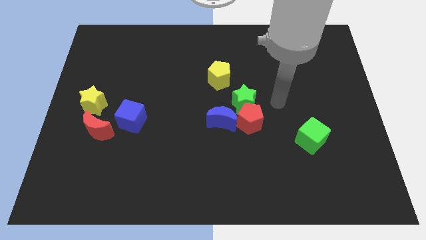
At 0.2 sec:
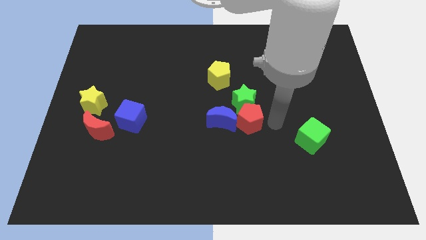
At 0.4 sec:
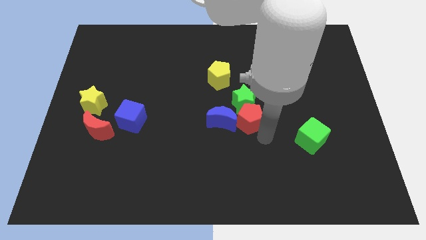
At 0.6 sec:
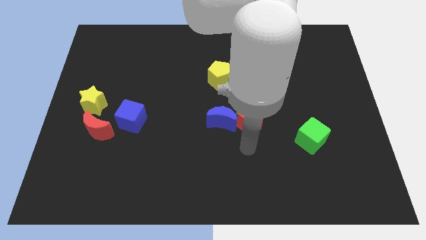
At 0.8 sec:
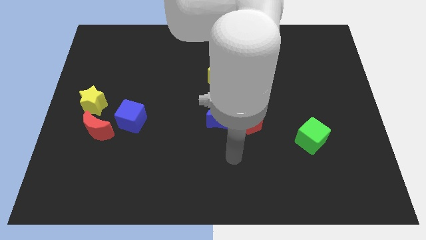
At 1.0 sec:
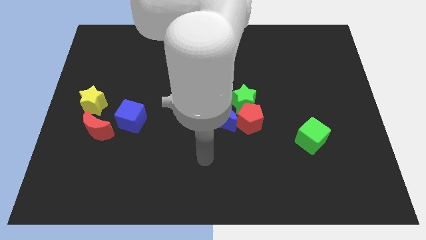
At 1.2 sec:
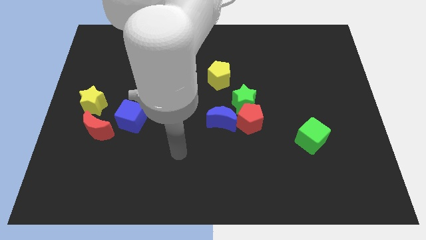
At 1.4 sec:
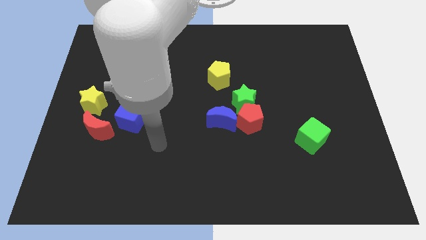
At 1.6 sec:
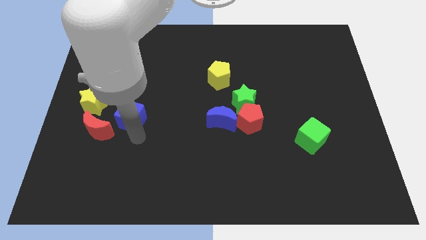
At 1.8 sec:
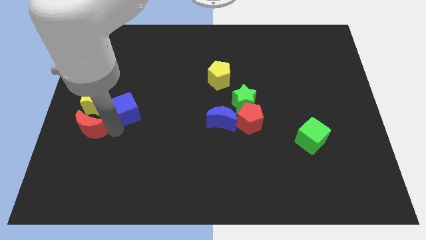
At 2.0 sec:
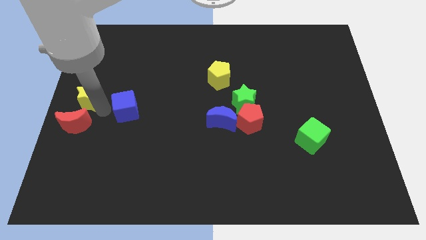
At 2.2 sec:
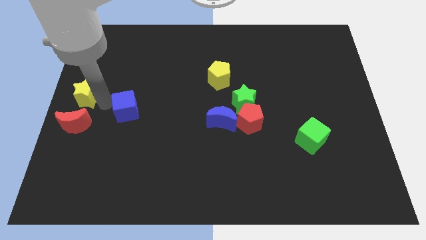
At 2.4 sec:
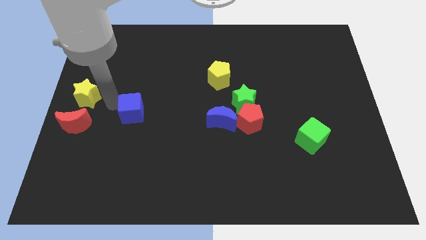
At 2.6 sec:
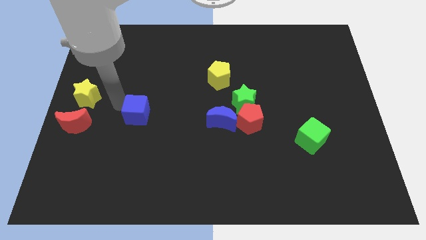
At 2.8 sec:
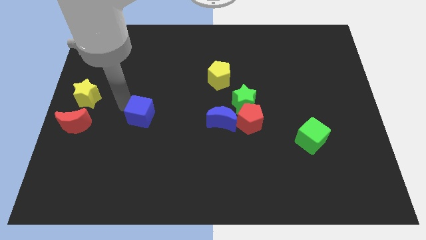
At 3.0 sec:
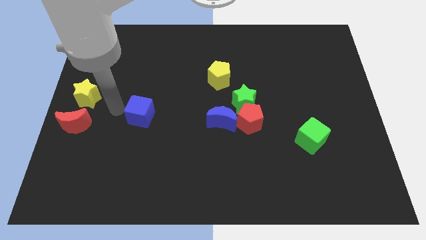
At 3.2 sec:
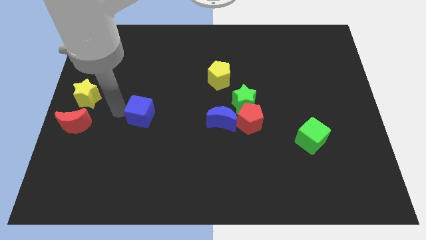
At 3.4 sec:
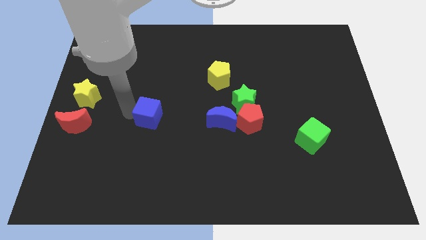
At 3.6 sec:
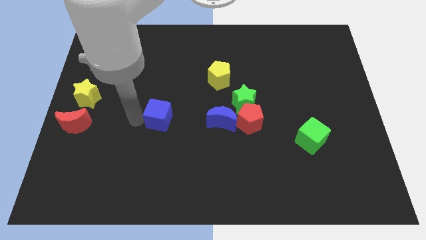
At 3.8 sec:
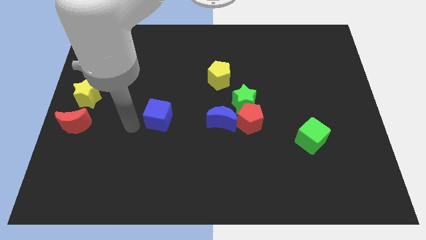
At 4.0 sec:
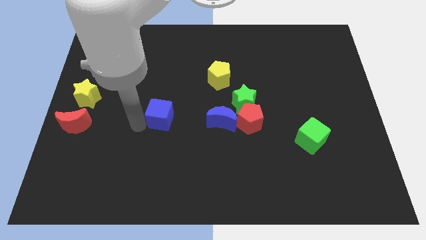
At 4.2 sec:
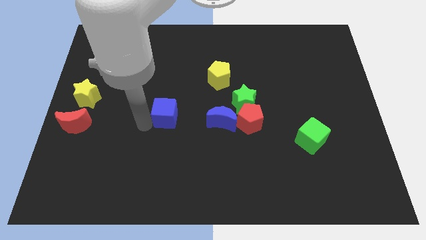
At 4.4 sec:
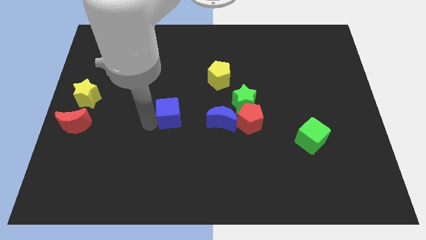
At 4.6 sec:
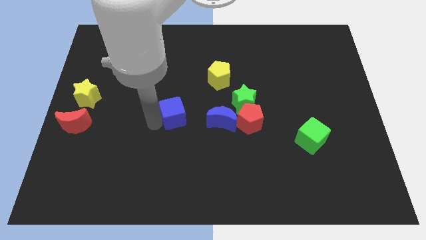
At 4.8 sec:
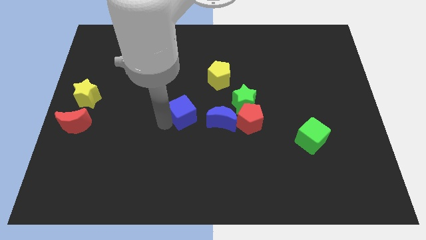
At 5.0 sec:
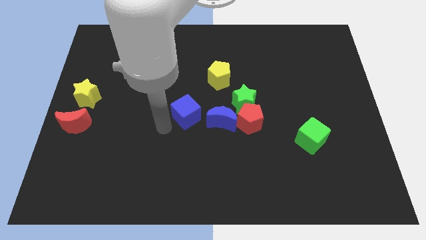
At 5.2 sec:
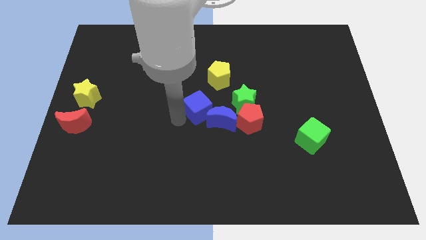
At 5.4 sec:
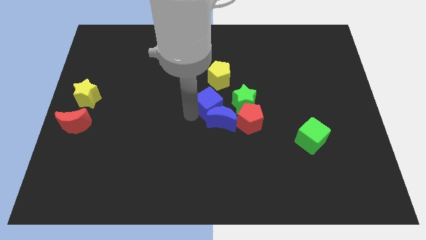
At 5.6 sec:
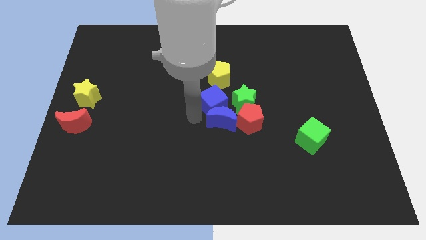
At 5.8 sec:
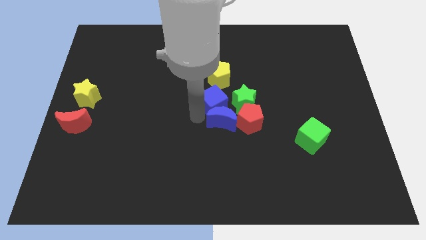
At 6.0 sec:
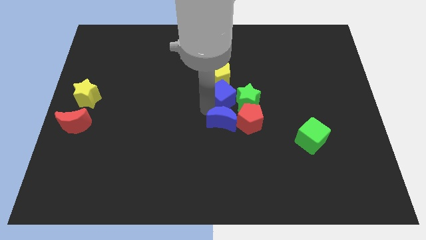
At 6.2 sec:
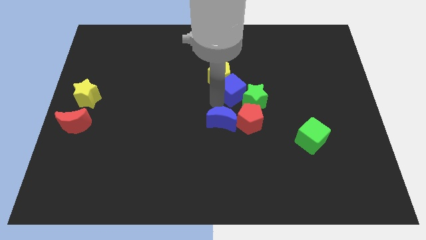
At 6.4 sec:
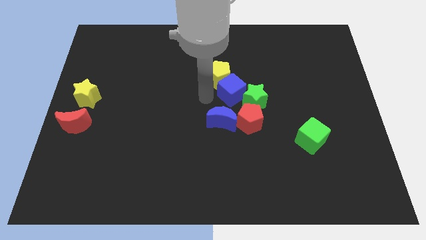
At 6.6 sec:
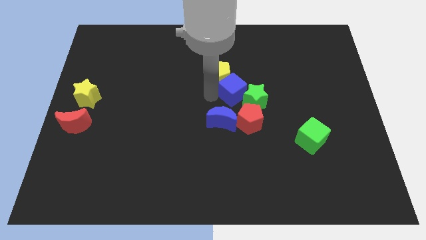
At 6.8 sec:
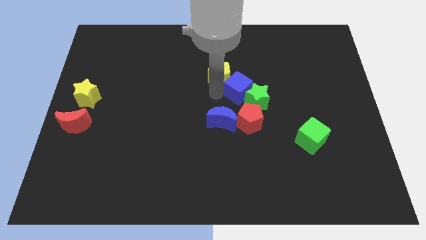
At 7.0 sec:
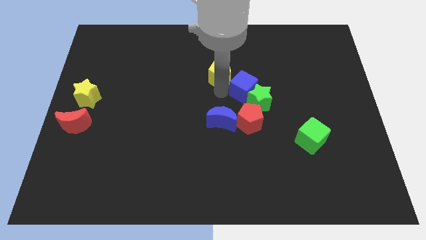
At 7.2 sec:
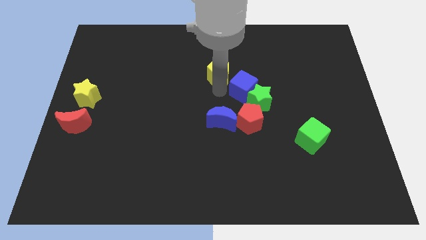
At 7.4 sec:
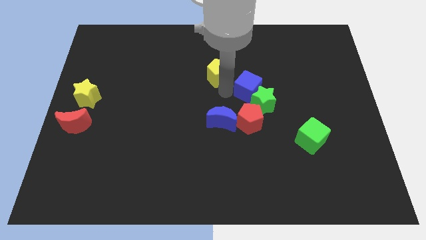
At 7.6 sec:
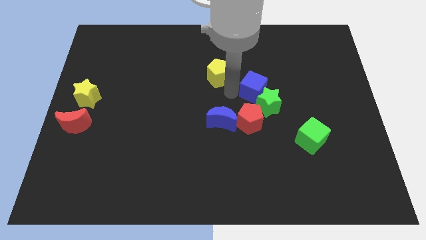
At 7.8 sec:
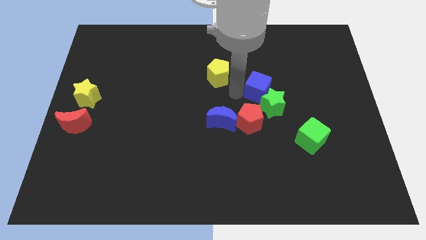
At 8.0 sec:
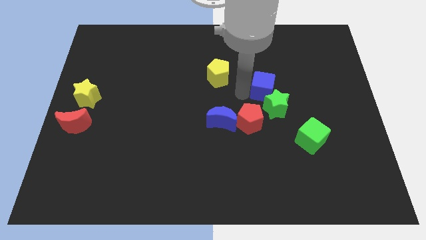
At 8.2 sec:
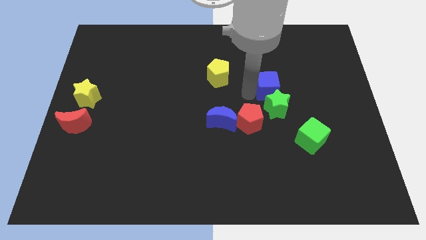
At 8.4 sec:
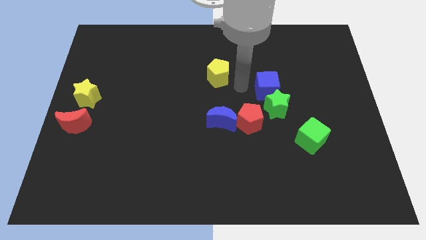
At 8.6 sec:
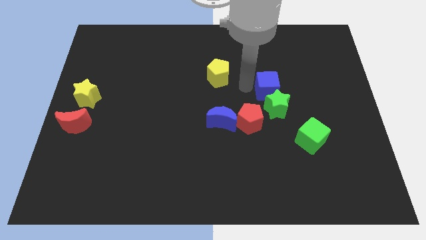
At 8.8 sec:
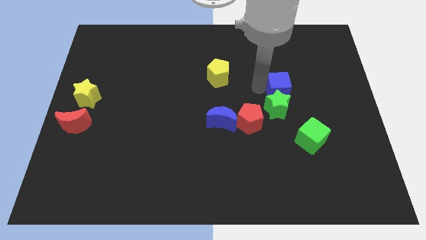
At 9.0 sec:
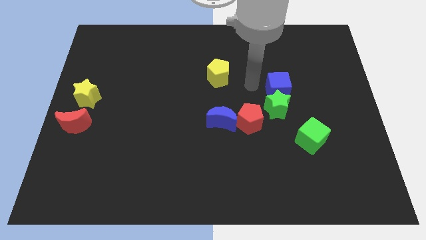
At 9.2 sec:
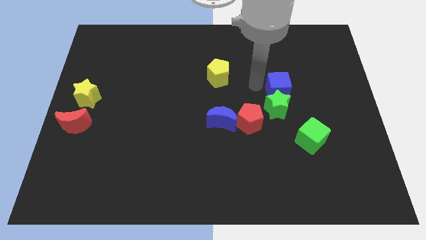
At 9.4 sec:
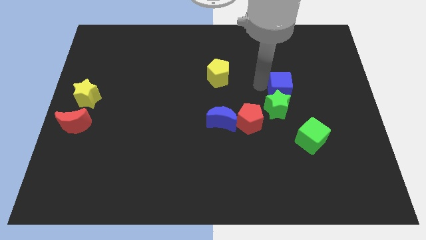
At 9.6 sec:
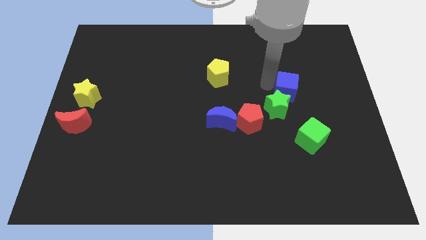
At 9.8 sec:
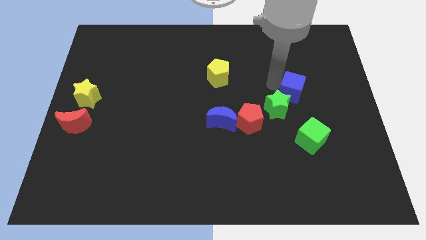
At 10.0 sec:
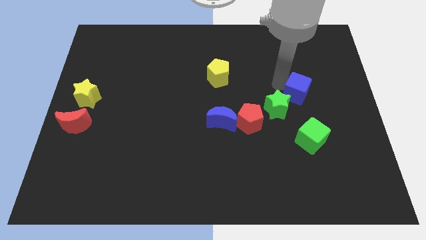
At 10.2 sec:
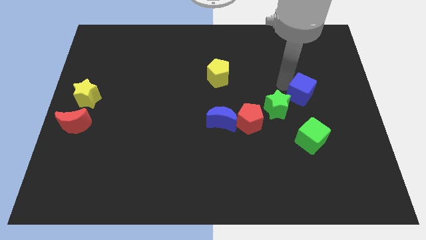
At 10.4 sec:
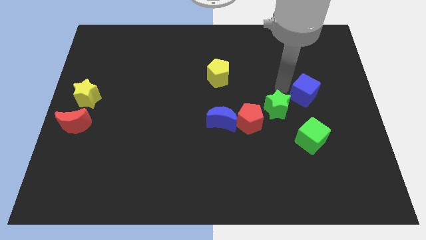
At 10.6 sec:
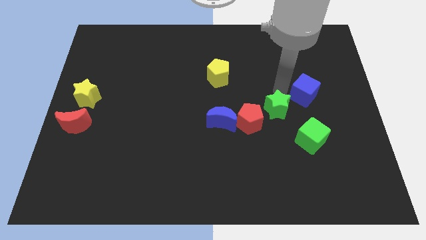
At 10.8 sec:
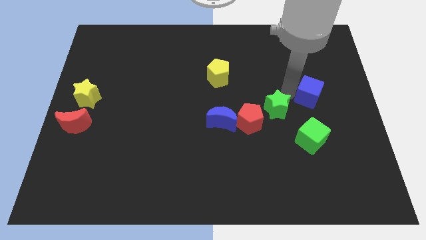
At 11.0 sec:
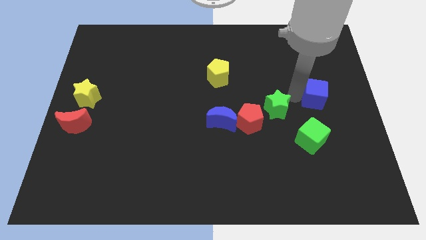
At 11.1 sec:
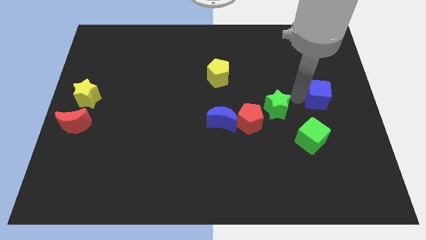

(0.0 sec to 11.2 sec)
put the blue cube to the right side

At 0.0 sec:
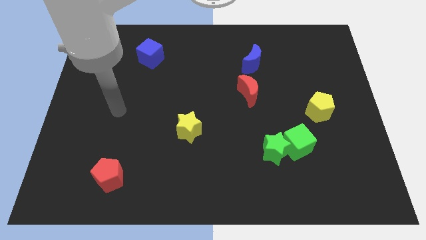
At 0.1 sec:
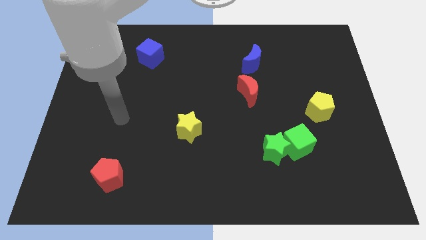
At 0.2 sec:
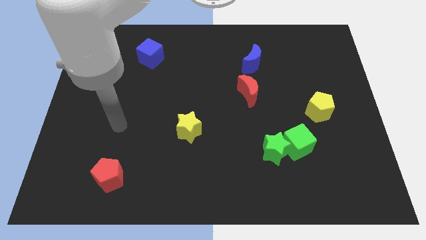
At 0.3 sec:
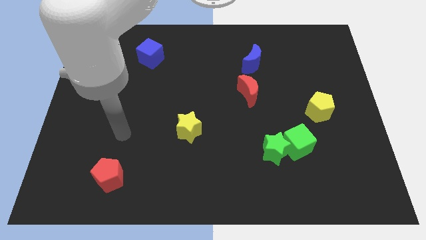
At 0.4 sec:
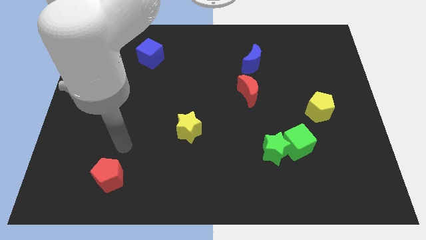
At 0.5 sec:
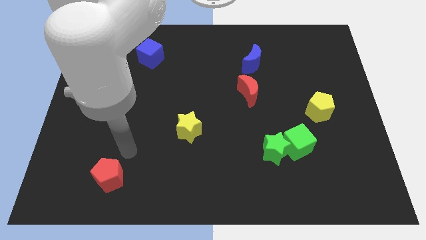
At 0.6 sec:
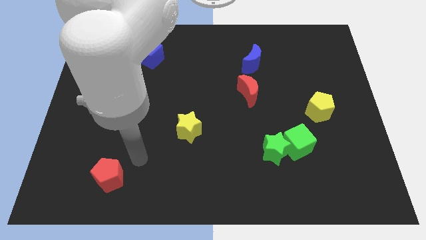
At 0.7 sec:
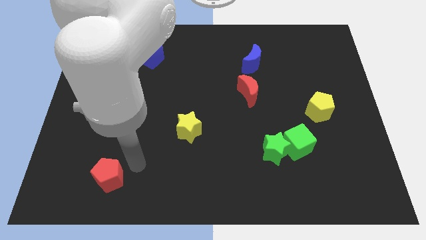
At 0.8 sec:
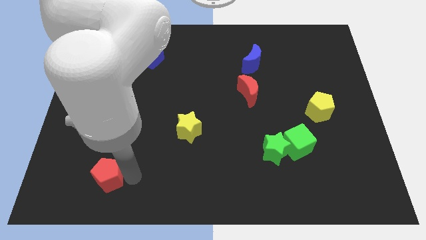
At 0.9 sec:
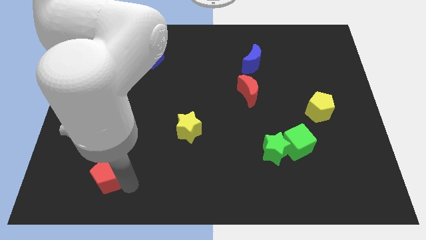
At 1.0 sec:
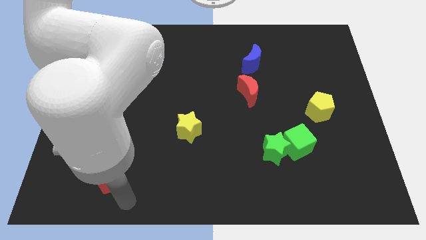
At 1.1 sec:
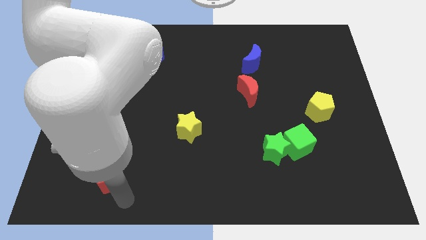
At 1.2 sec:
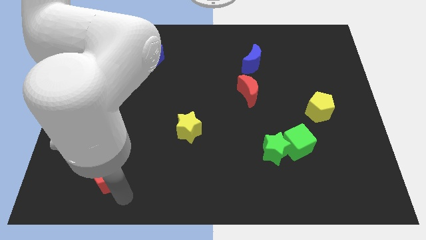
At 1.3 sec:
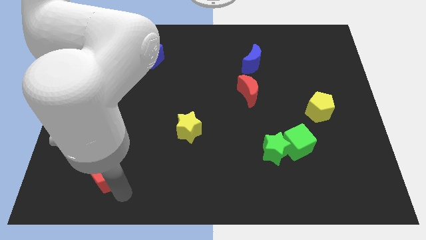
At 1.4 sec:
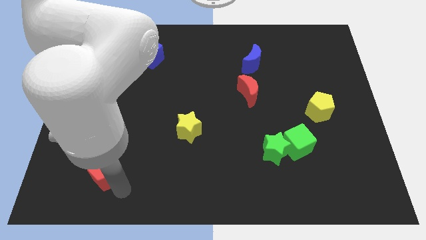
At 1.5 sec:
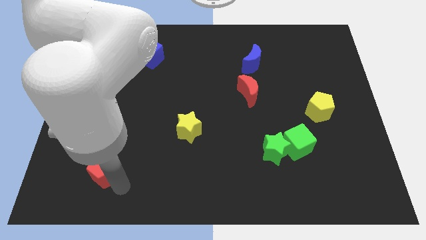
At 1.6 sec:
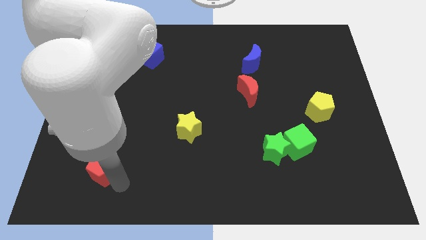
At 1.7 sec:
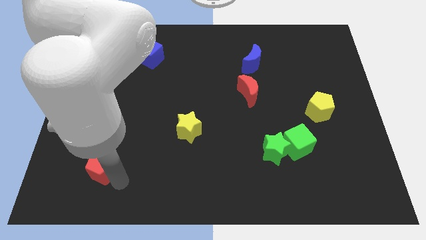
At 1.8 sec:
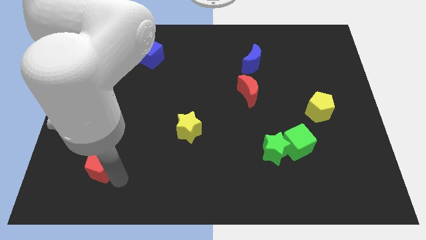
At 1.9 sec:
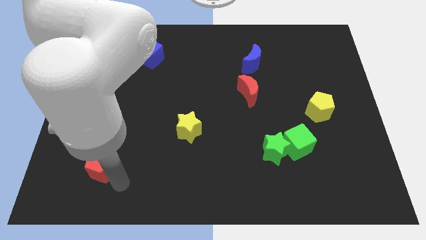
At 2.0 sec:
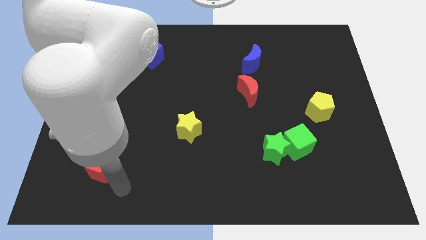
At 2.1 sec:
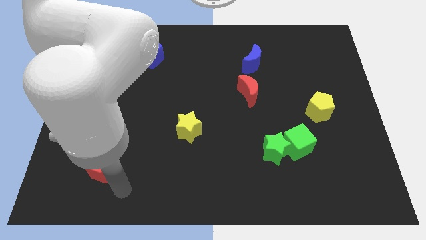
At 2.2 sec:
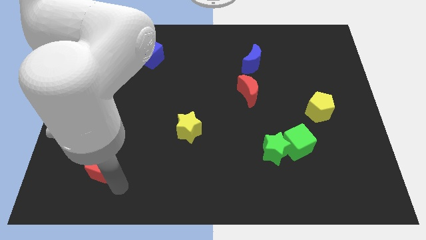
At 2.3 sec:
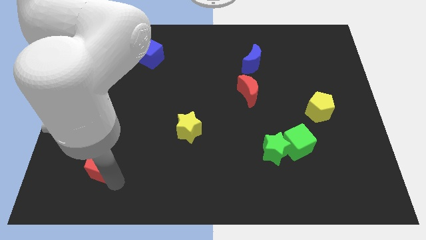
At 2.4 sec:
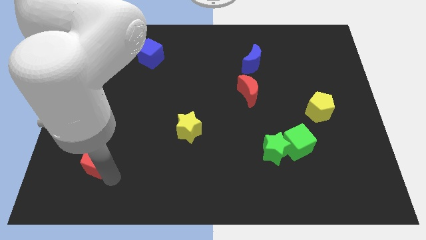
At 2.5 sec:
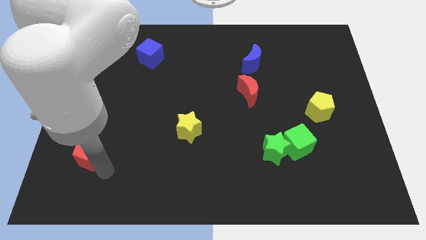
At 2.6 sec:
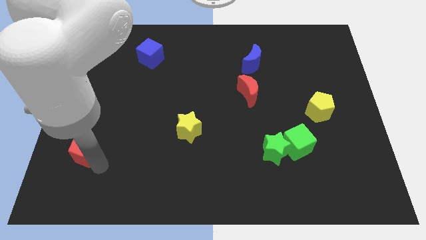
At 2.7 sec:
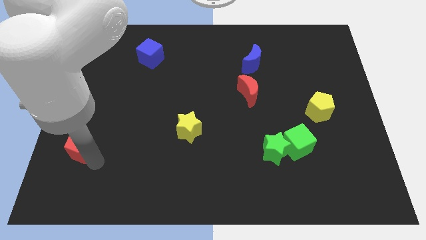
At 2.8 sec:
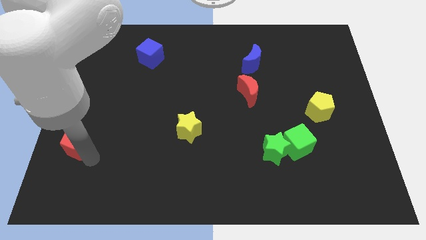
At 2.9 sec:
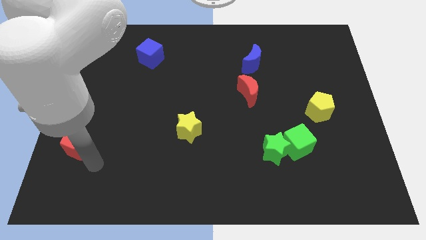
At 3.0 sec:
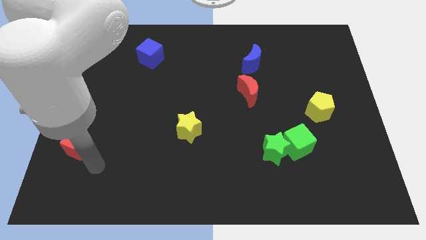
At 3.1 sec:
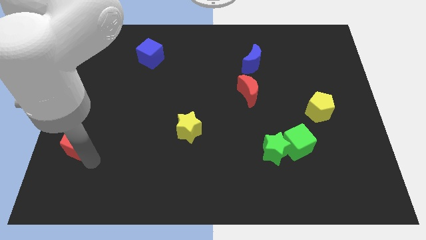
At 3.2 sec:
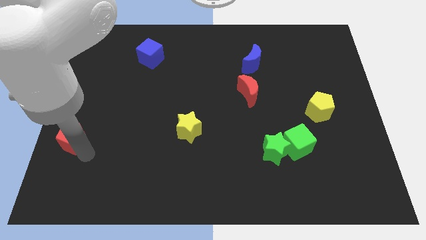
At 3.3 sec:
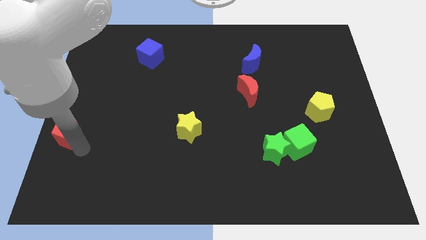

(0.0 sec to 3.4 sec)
push the red pentagon to the center left
